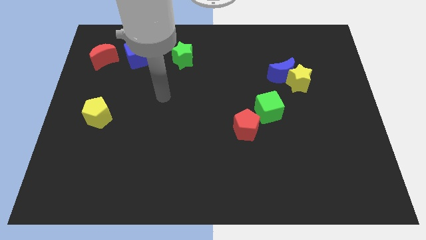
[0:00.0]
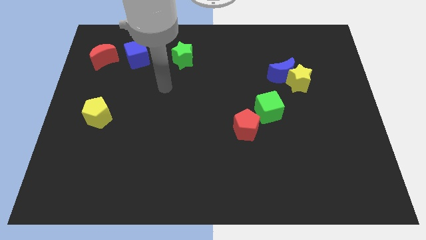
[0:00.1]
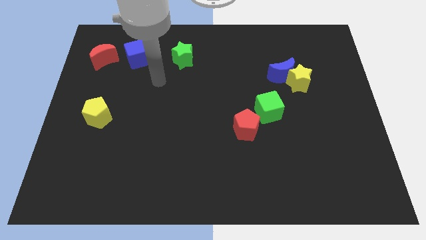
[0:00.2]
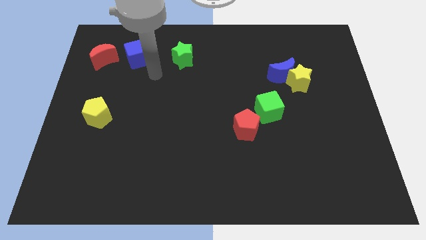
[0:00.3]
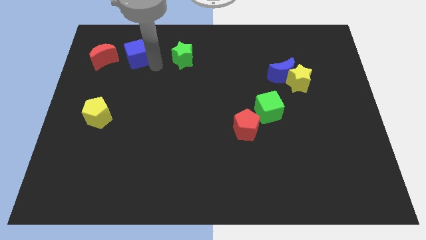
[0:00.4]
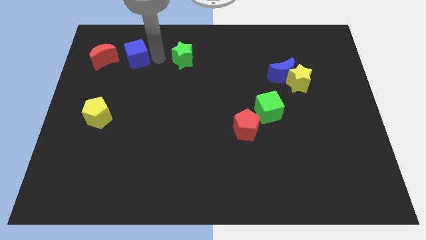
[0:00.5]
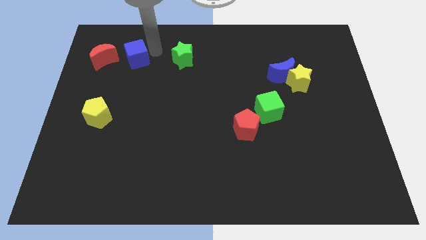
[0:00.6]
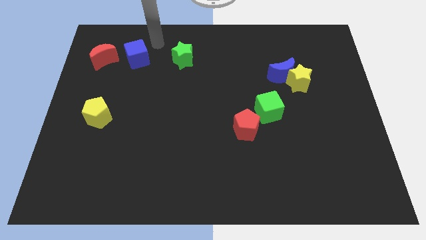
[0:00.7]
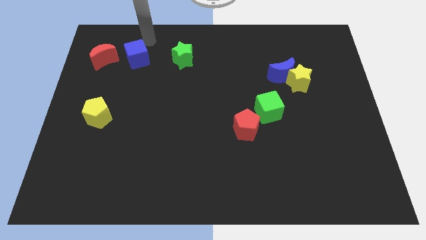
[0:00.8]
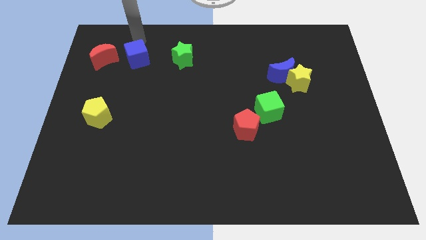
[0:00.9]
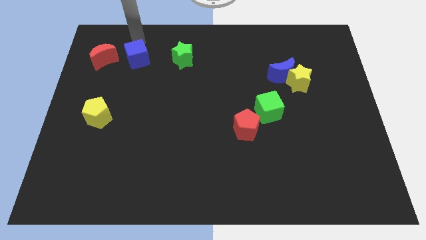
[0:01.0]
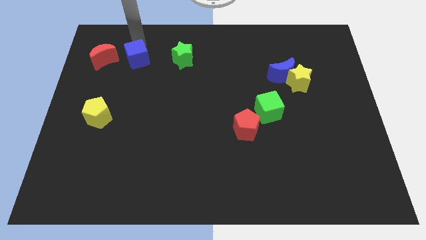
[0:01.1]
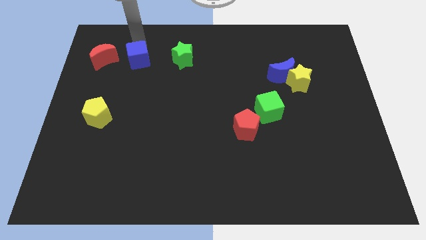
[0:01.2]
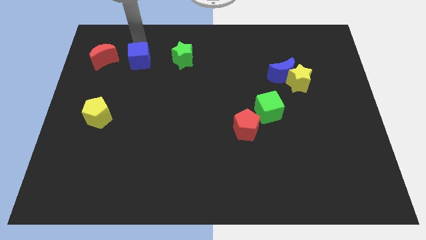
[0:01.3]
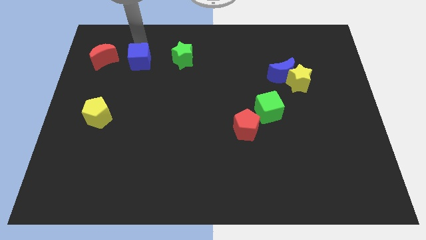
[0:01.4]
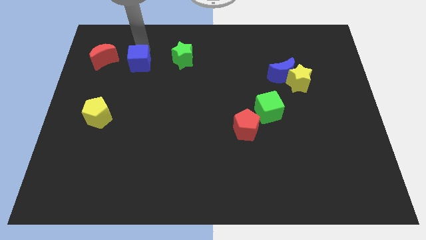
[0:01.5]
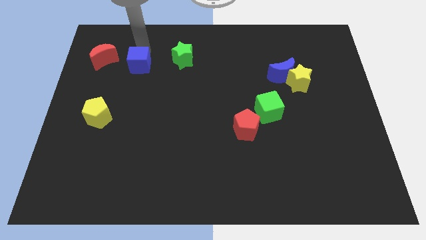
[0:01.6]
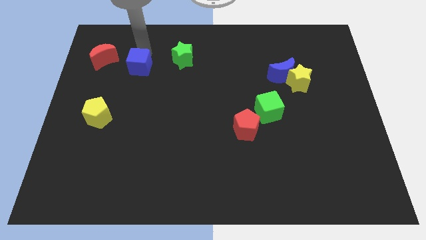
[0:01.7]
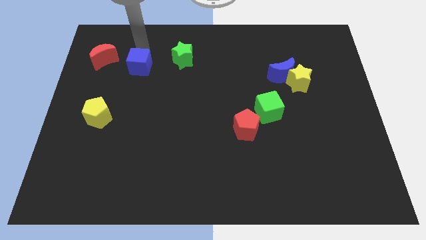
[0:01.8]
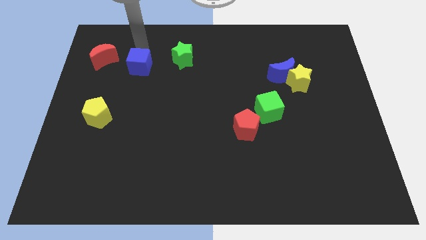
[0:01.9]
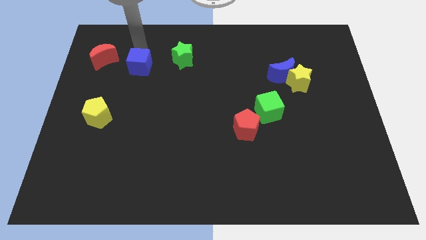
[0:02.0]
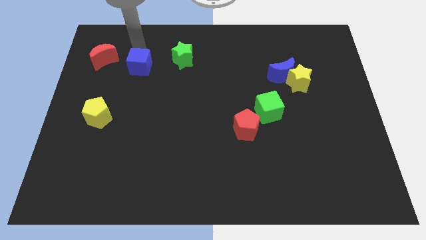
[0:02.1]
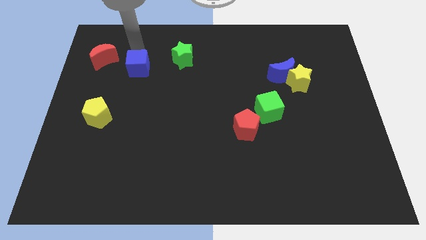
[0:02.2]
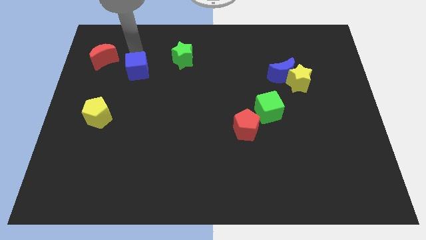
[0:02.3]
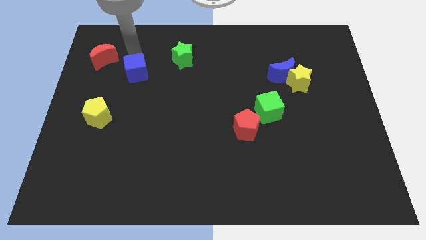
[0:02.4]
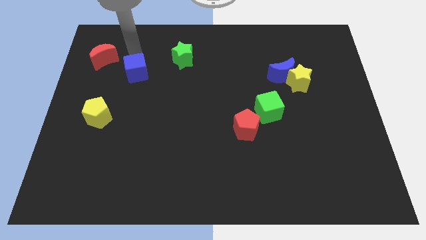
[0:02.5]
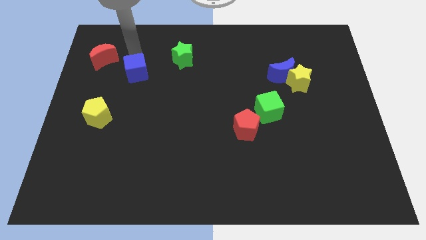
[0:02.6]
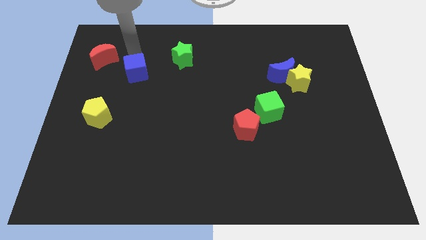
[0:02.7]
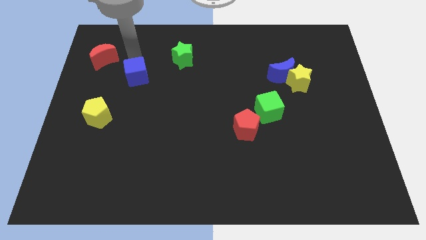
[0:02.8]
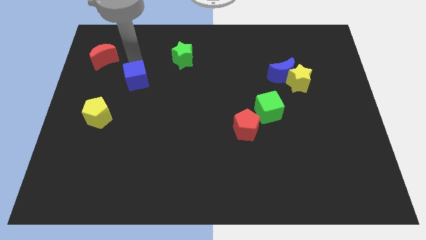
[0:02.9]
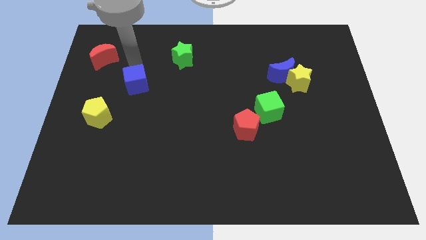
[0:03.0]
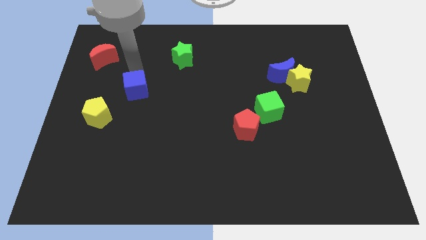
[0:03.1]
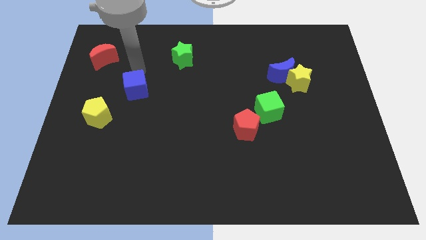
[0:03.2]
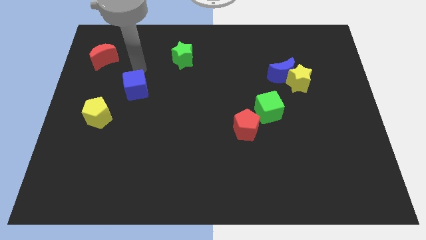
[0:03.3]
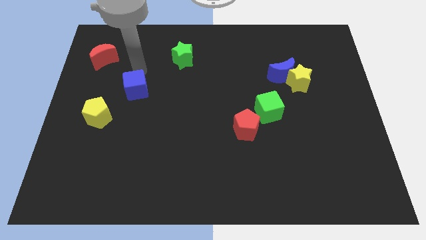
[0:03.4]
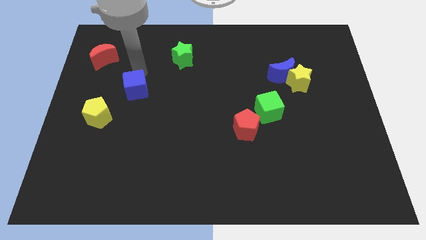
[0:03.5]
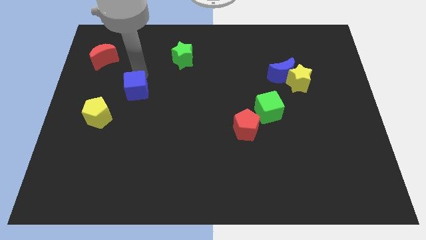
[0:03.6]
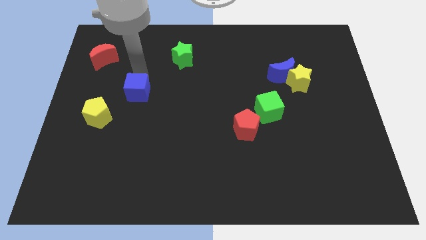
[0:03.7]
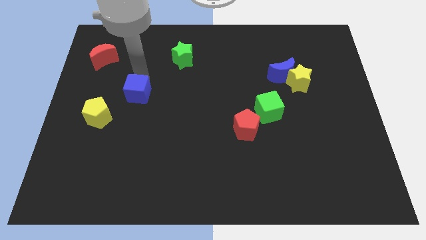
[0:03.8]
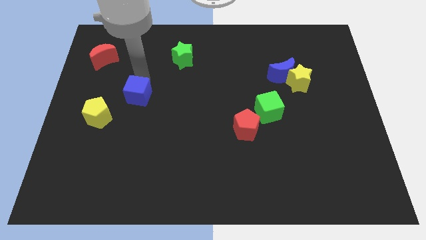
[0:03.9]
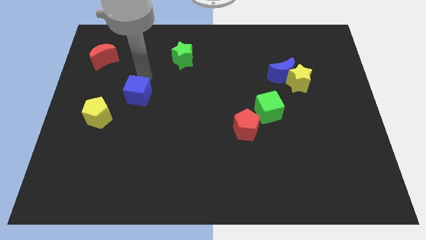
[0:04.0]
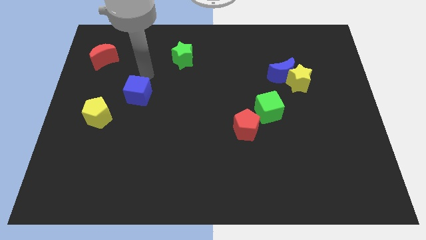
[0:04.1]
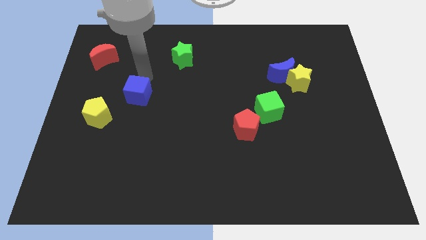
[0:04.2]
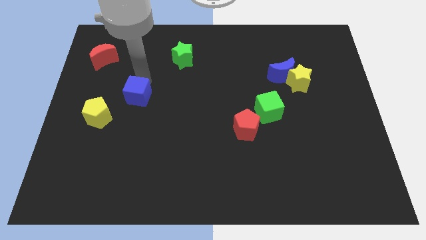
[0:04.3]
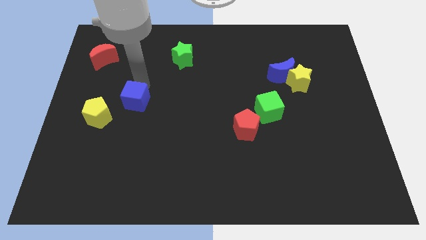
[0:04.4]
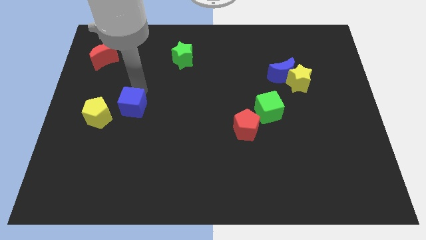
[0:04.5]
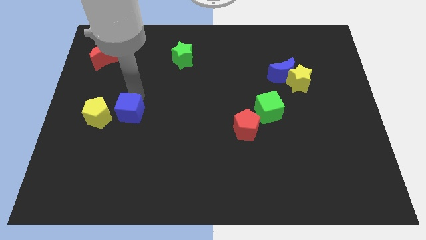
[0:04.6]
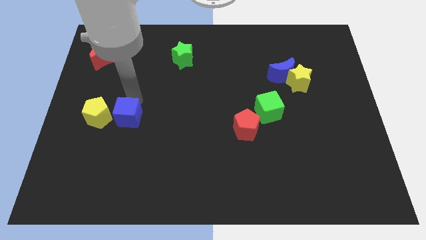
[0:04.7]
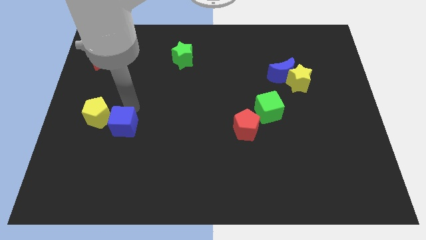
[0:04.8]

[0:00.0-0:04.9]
push the blue cube down

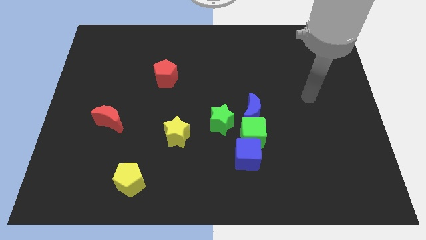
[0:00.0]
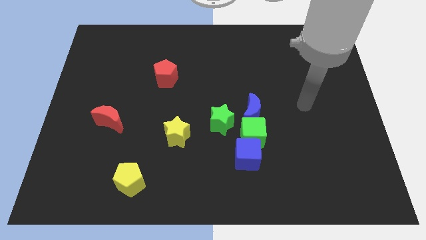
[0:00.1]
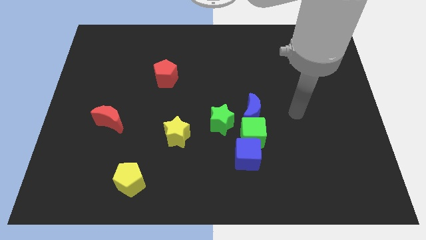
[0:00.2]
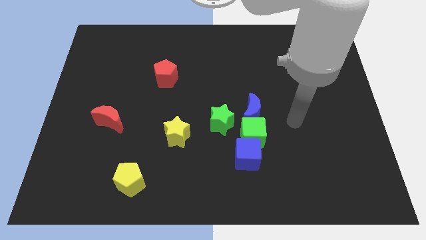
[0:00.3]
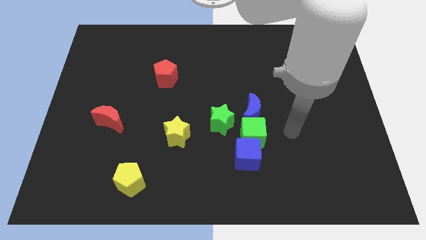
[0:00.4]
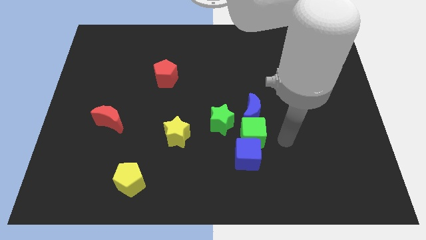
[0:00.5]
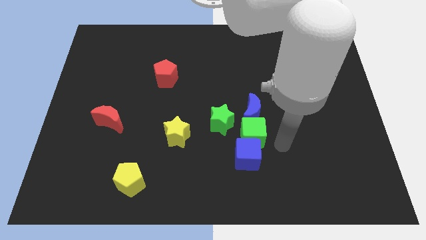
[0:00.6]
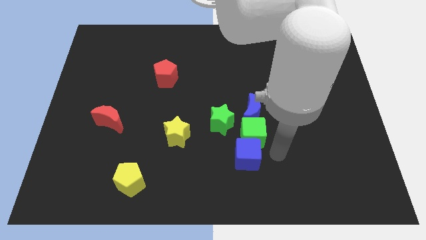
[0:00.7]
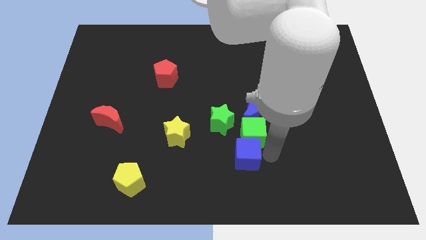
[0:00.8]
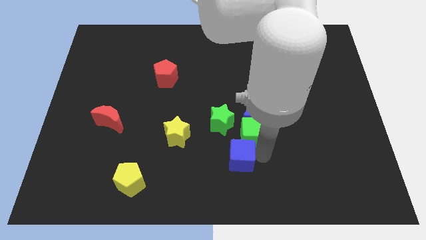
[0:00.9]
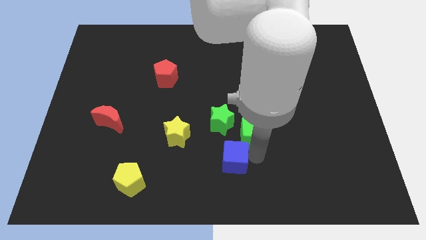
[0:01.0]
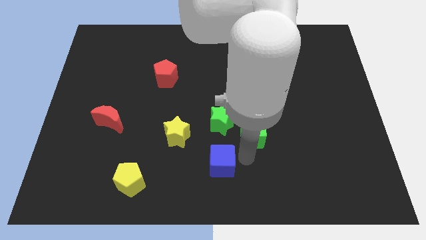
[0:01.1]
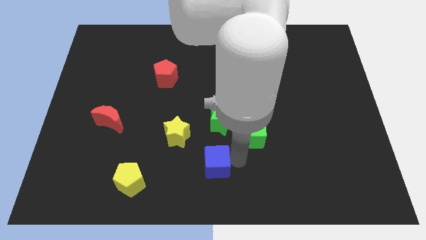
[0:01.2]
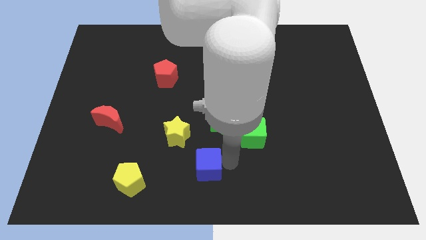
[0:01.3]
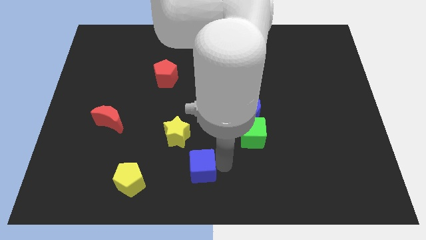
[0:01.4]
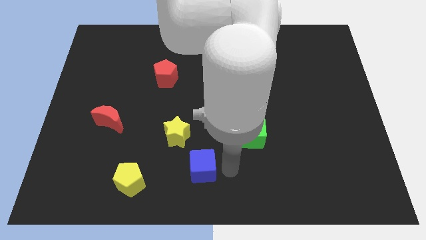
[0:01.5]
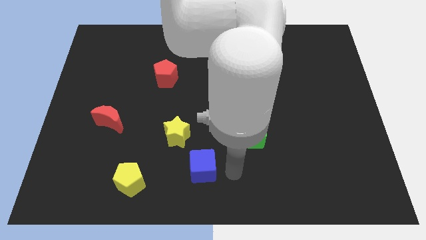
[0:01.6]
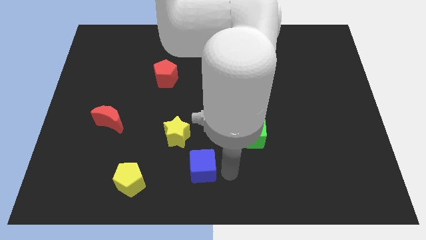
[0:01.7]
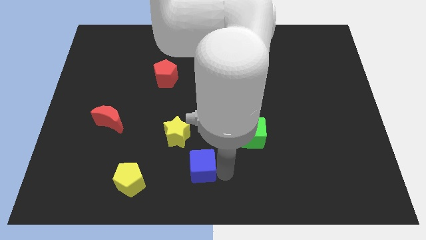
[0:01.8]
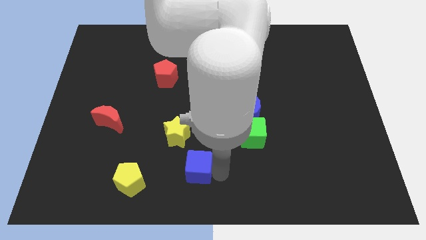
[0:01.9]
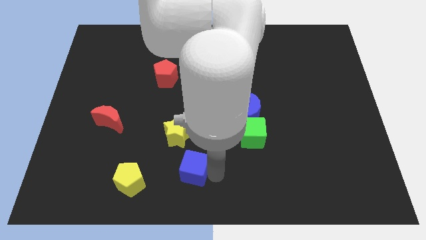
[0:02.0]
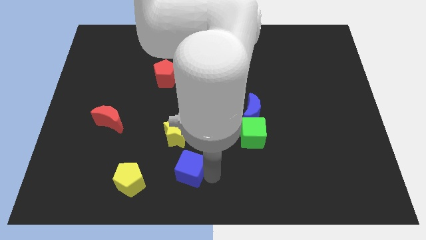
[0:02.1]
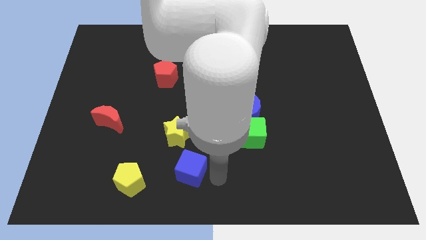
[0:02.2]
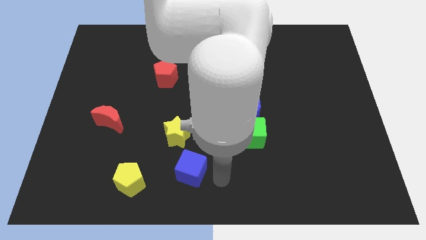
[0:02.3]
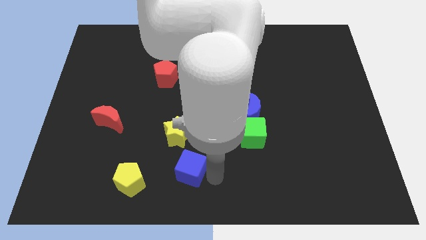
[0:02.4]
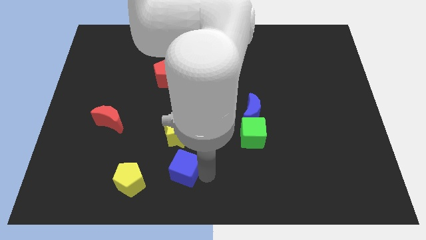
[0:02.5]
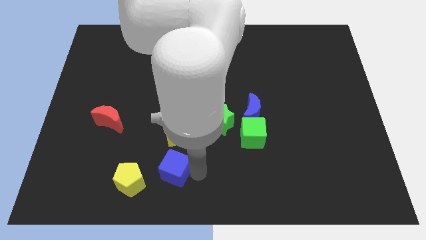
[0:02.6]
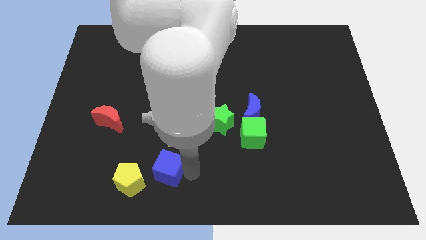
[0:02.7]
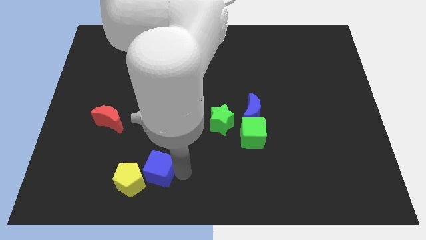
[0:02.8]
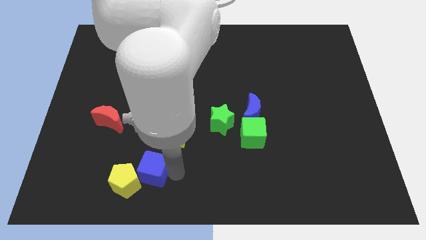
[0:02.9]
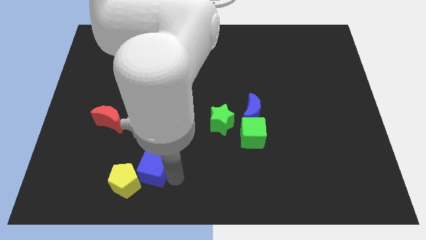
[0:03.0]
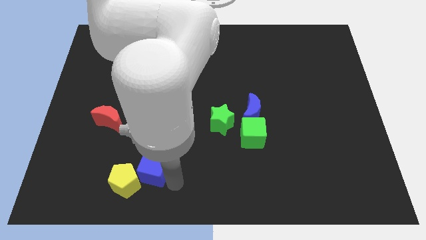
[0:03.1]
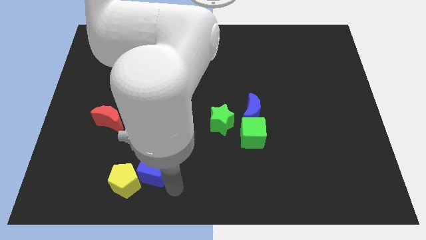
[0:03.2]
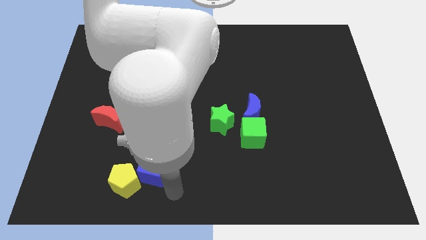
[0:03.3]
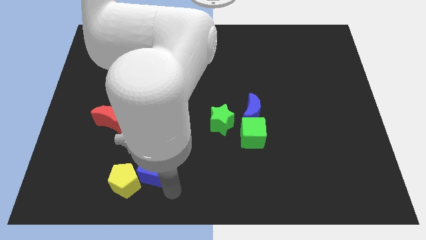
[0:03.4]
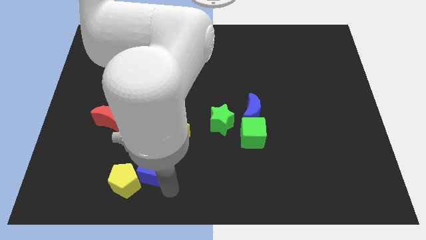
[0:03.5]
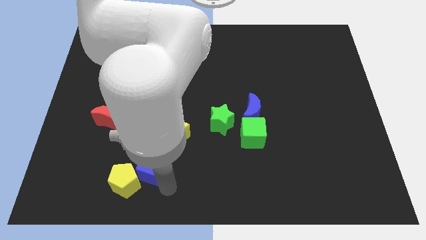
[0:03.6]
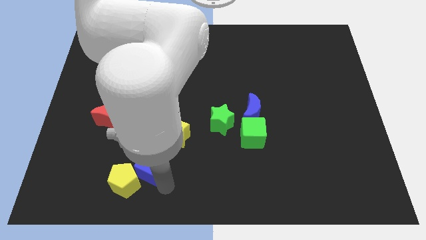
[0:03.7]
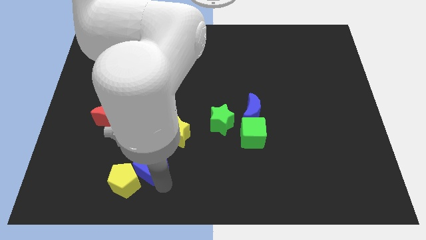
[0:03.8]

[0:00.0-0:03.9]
move the blue cube left
